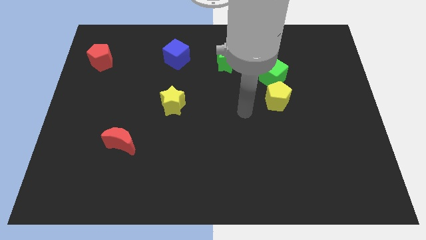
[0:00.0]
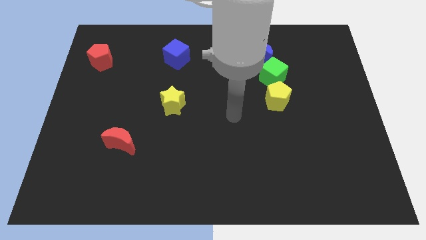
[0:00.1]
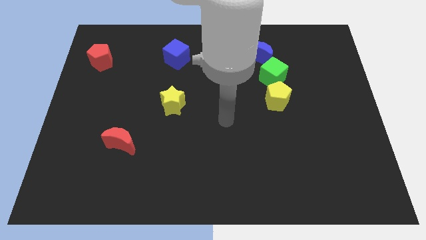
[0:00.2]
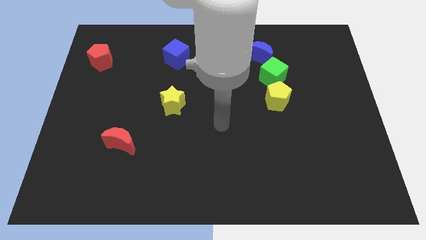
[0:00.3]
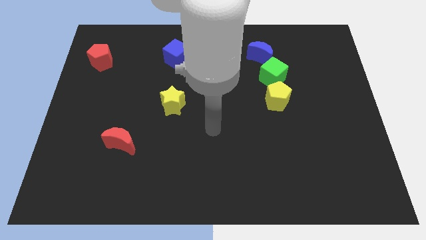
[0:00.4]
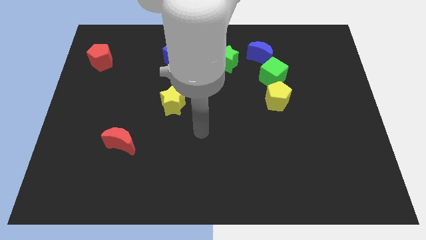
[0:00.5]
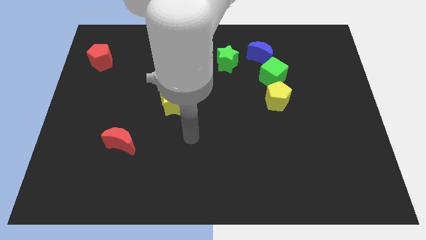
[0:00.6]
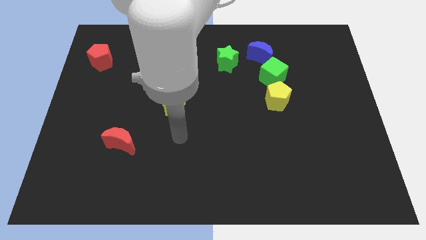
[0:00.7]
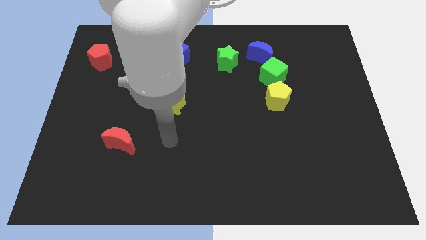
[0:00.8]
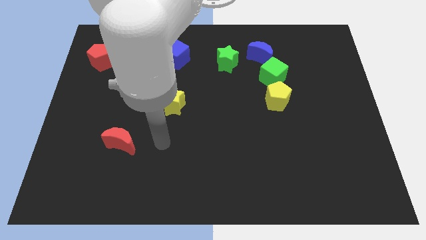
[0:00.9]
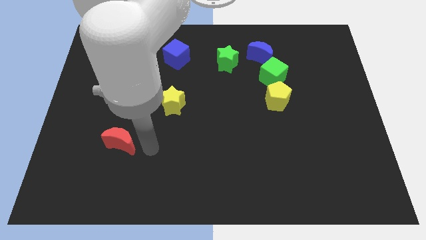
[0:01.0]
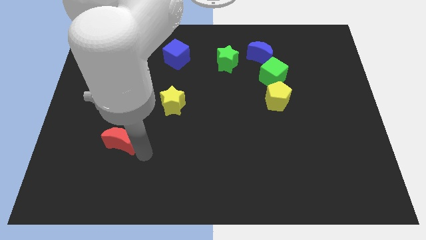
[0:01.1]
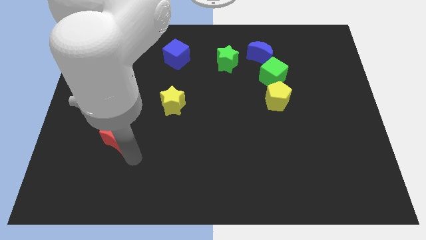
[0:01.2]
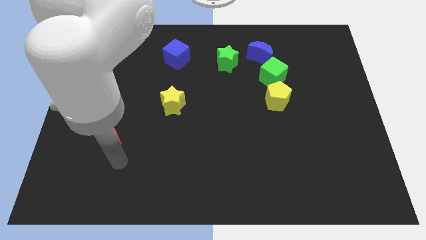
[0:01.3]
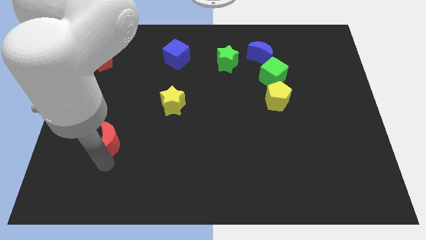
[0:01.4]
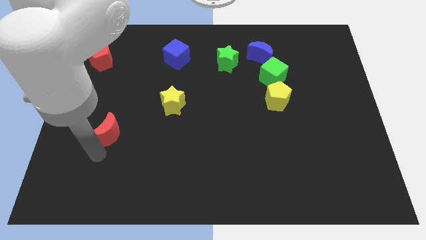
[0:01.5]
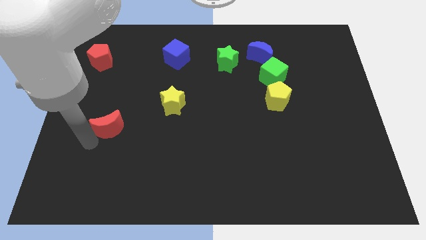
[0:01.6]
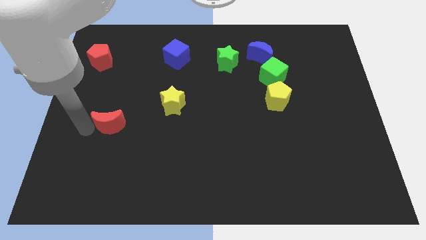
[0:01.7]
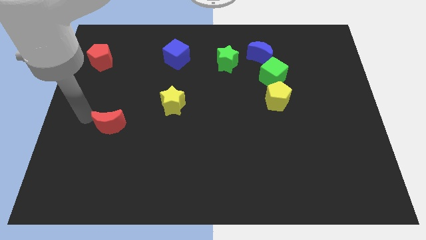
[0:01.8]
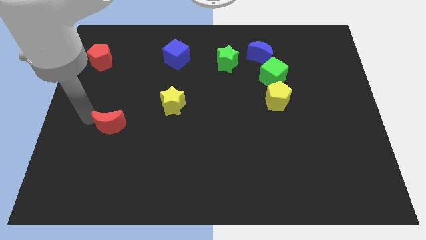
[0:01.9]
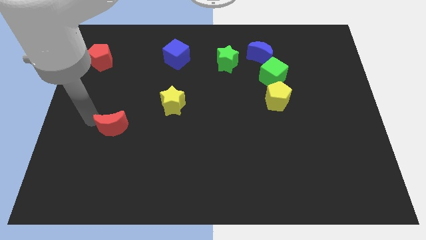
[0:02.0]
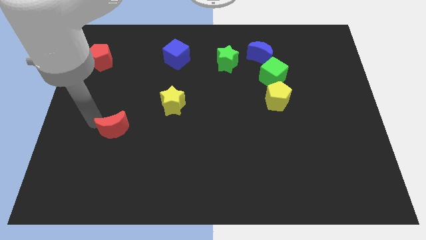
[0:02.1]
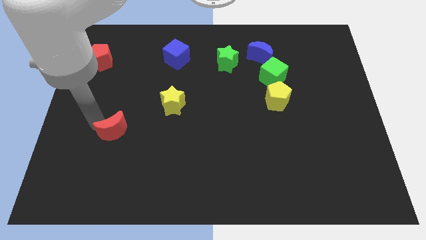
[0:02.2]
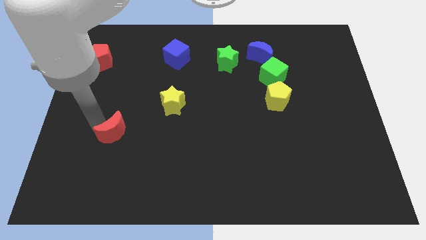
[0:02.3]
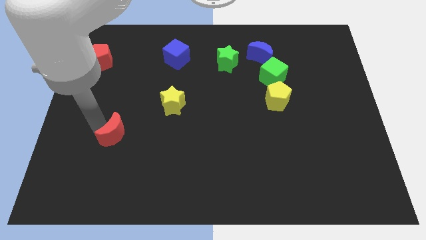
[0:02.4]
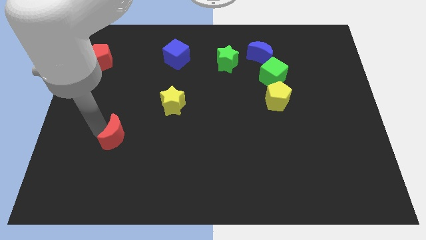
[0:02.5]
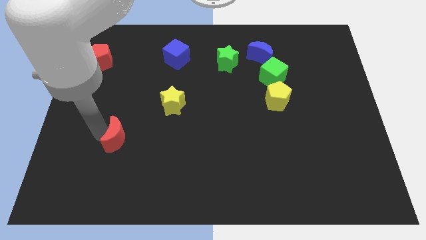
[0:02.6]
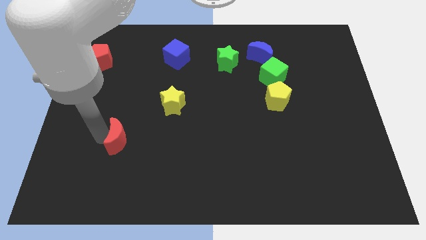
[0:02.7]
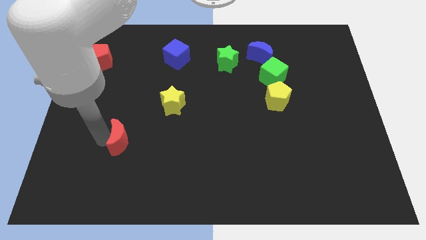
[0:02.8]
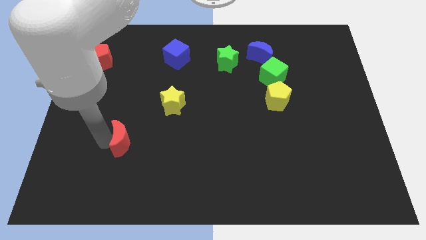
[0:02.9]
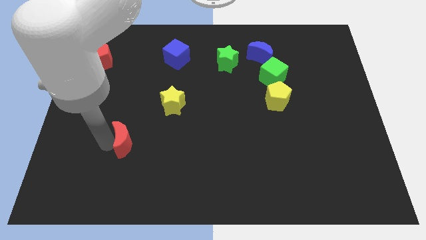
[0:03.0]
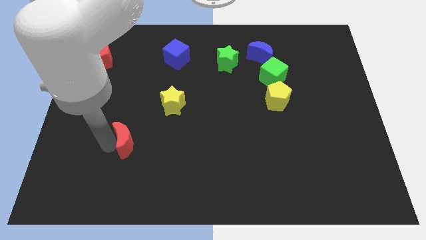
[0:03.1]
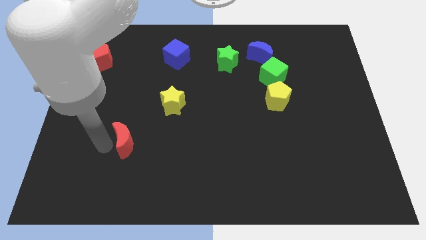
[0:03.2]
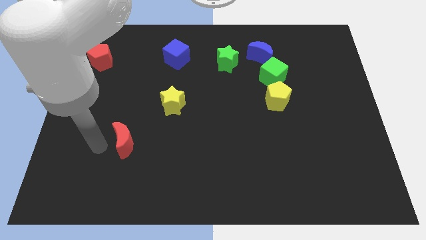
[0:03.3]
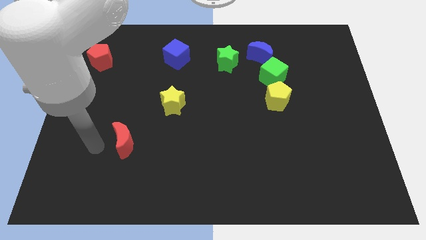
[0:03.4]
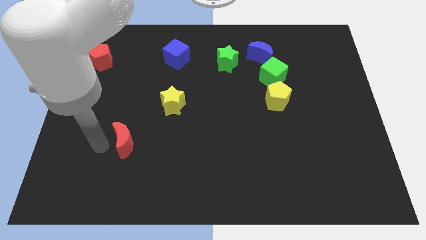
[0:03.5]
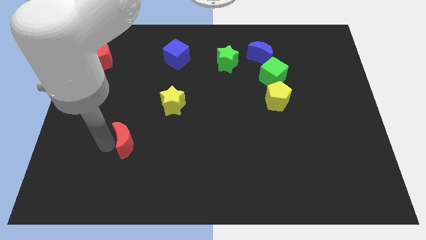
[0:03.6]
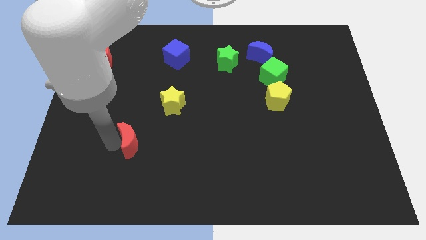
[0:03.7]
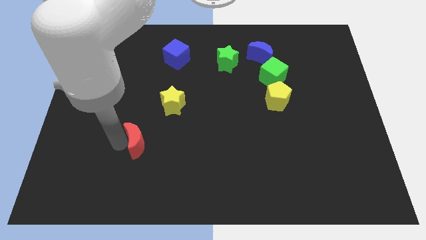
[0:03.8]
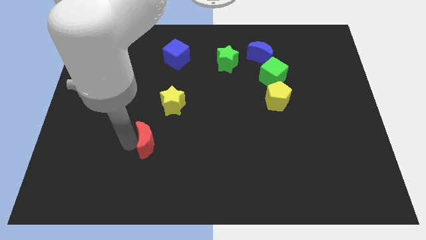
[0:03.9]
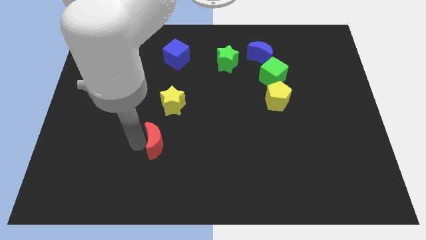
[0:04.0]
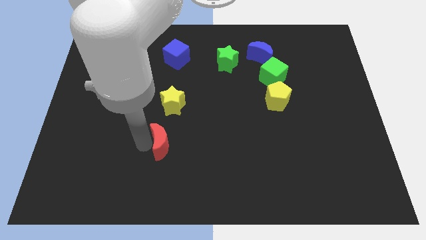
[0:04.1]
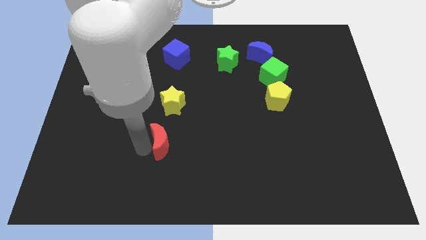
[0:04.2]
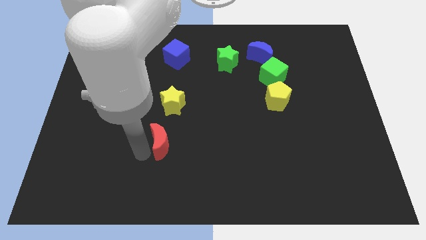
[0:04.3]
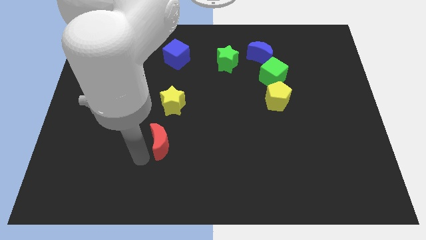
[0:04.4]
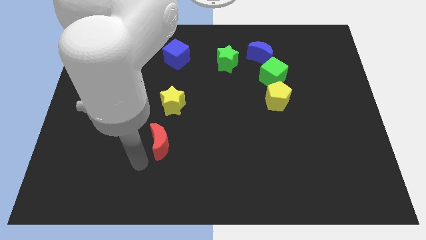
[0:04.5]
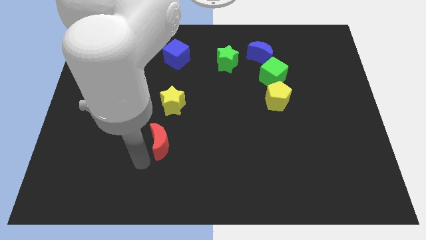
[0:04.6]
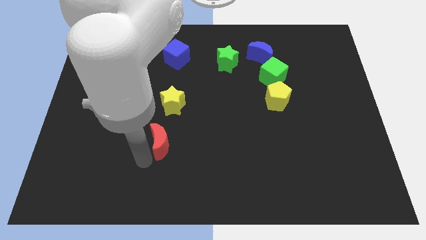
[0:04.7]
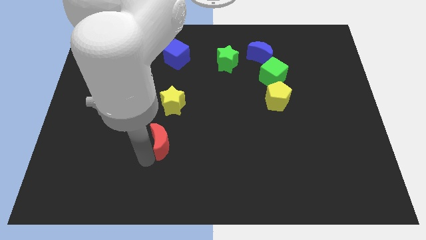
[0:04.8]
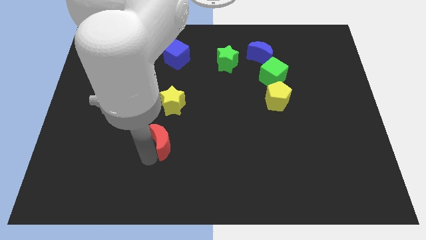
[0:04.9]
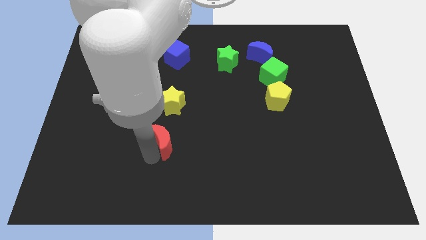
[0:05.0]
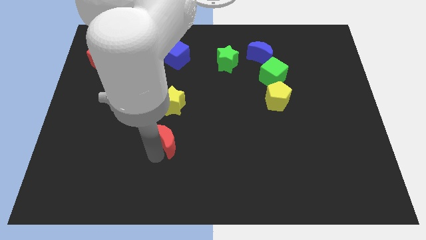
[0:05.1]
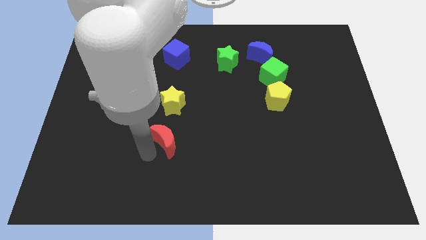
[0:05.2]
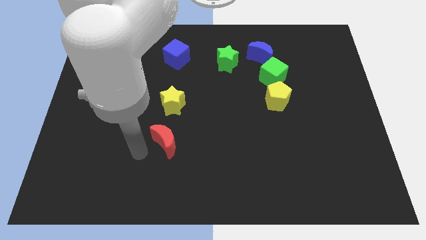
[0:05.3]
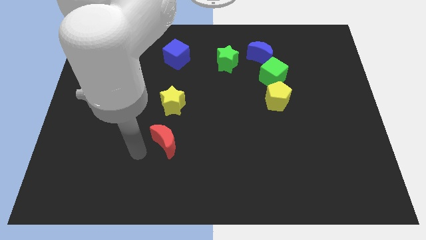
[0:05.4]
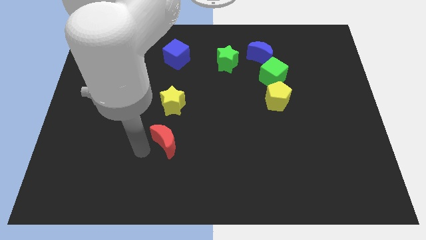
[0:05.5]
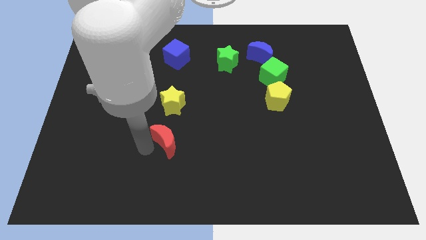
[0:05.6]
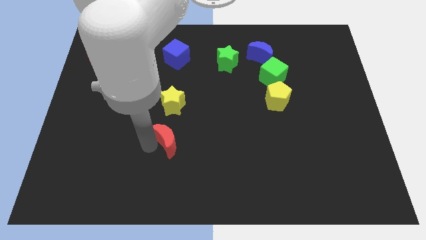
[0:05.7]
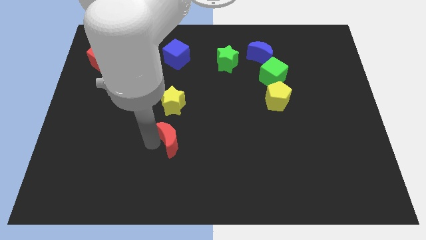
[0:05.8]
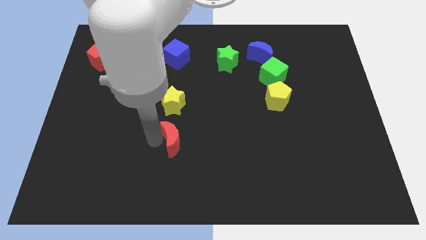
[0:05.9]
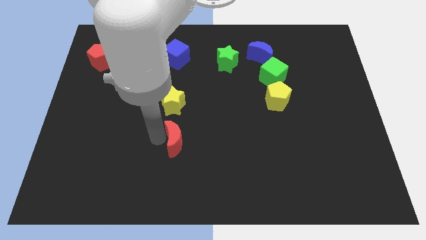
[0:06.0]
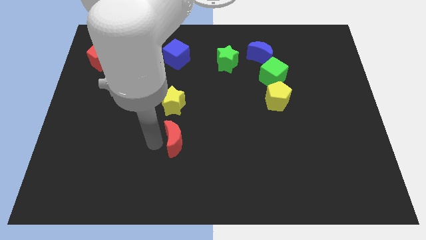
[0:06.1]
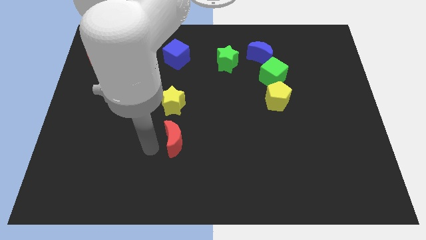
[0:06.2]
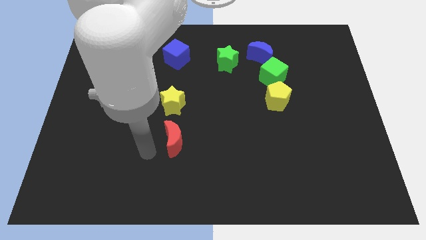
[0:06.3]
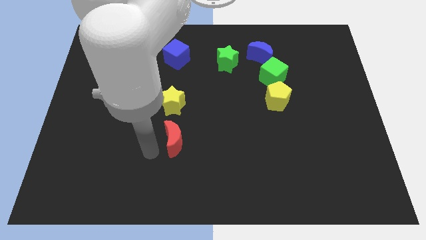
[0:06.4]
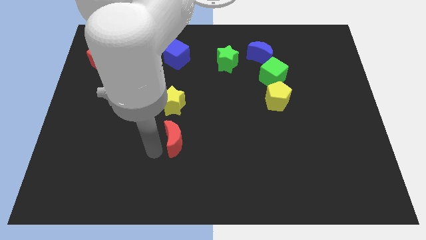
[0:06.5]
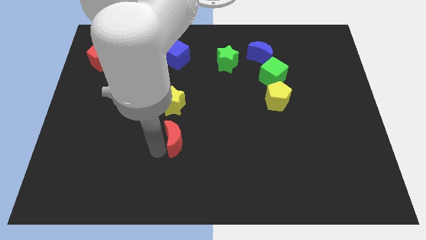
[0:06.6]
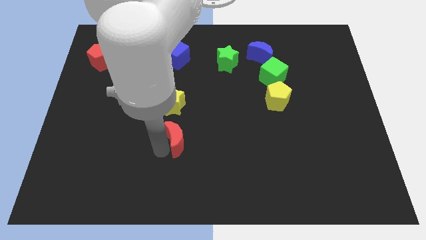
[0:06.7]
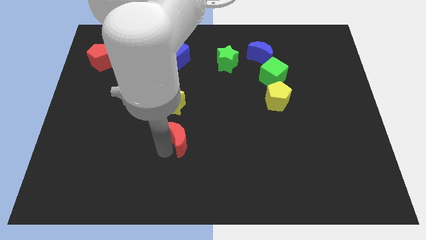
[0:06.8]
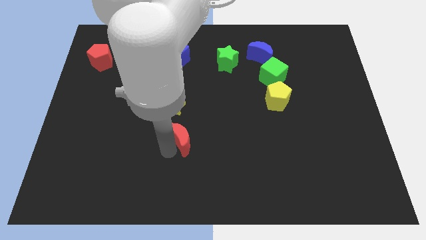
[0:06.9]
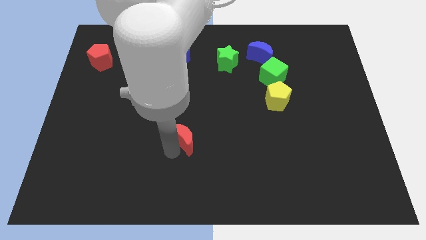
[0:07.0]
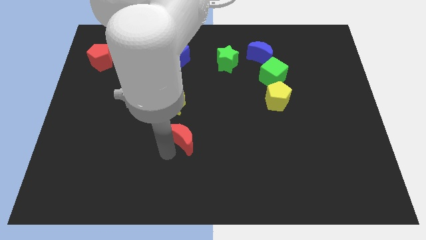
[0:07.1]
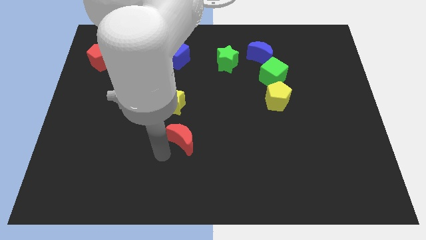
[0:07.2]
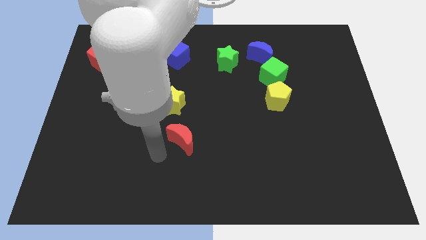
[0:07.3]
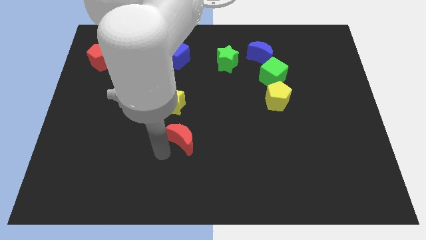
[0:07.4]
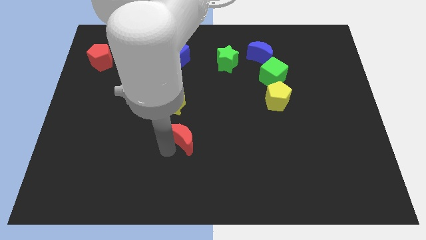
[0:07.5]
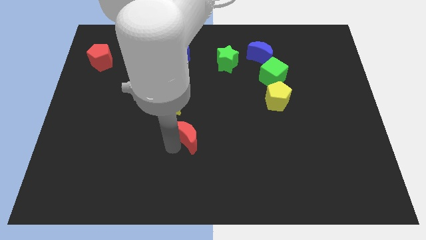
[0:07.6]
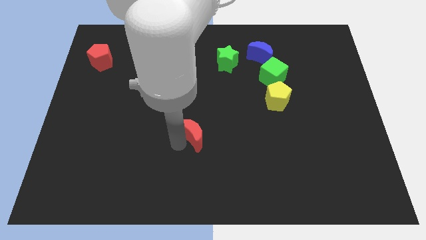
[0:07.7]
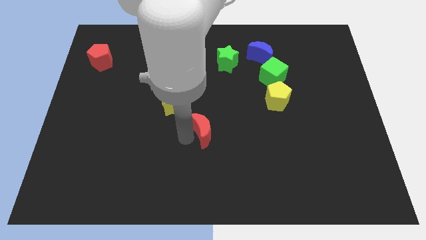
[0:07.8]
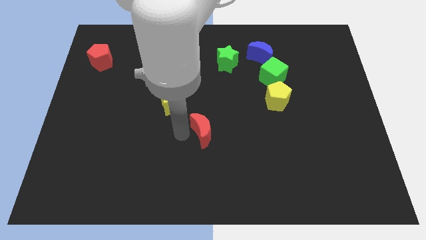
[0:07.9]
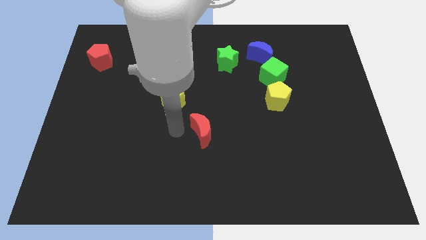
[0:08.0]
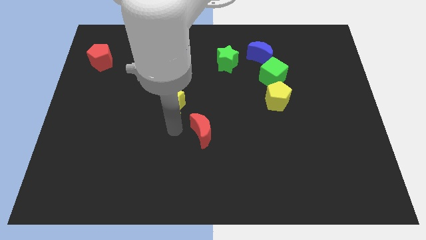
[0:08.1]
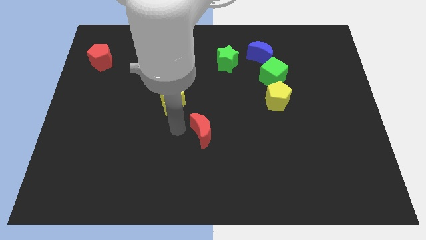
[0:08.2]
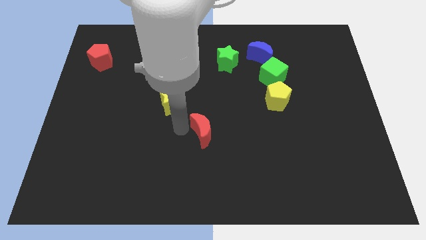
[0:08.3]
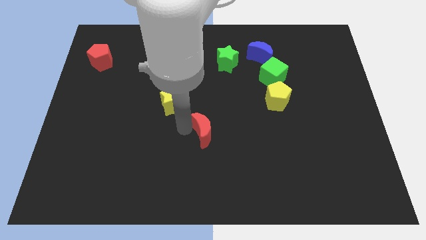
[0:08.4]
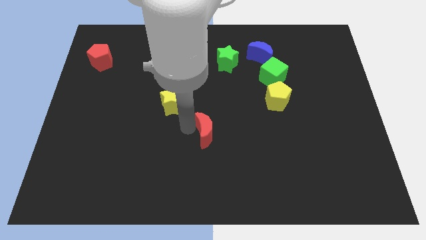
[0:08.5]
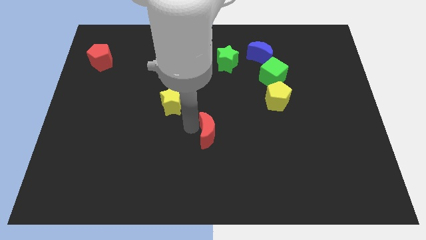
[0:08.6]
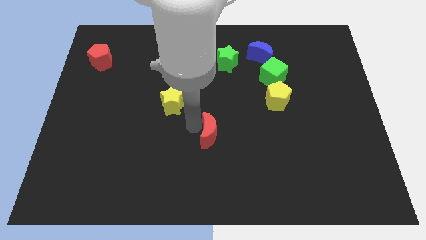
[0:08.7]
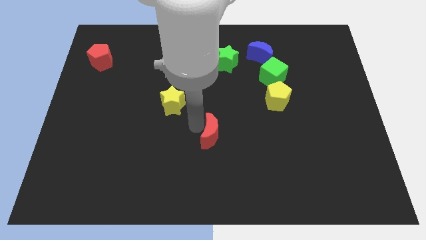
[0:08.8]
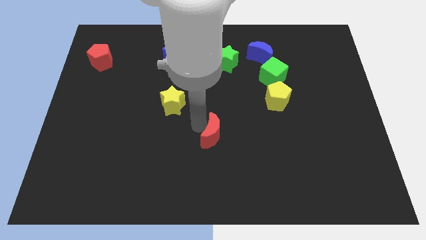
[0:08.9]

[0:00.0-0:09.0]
push the red moon right
